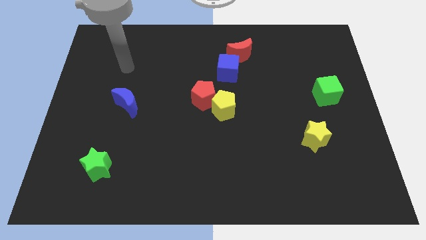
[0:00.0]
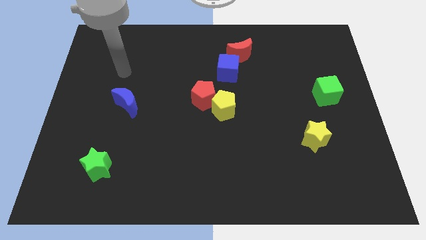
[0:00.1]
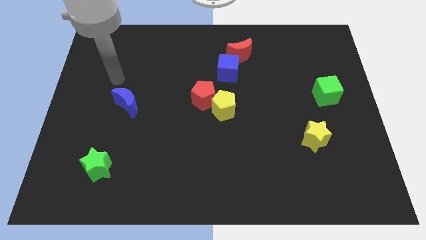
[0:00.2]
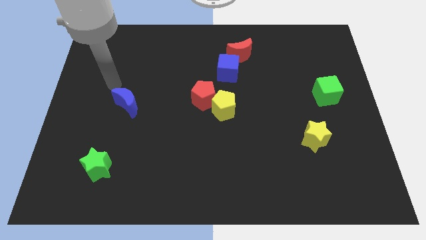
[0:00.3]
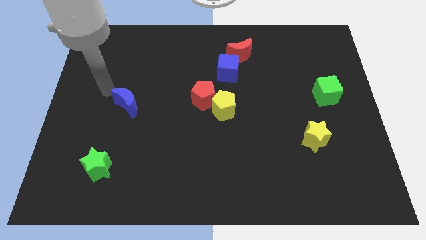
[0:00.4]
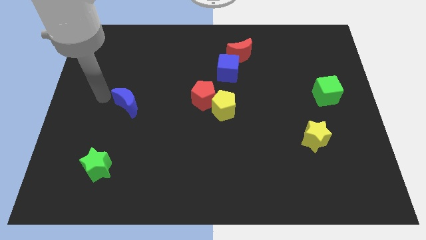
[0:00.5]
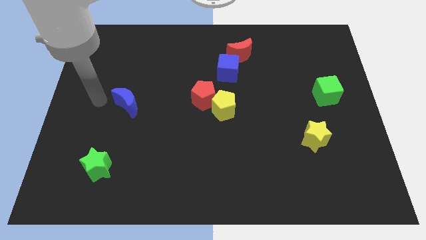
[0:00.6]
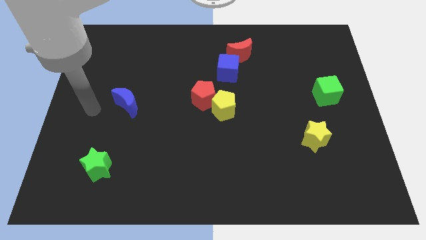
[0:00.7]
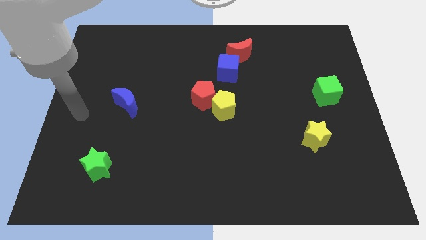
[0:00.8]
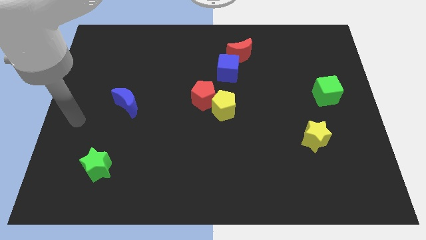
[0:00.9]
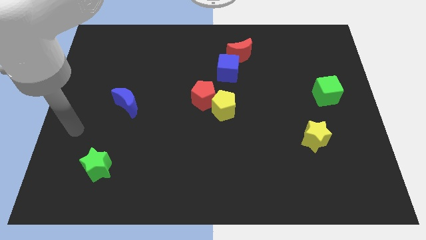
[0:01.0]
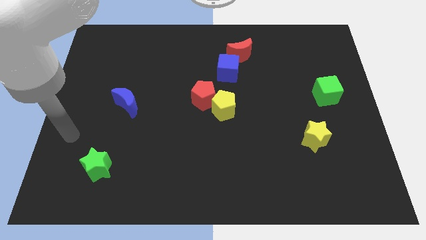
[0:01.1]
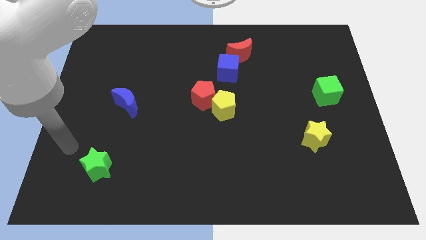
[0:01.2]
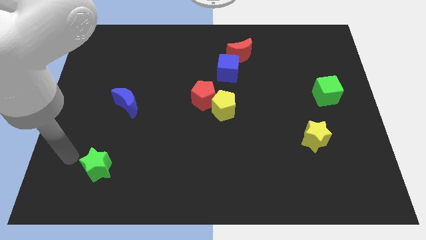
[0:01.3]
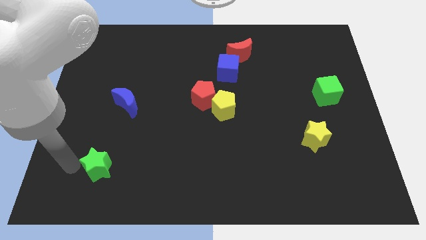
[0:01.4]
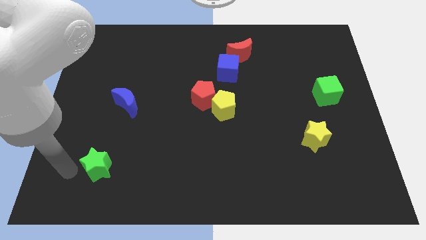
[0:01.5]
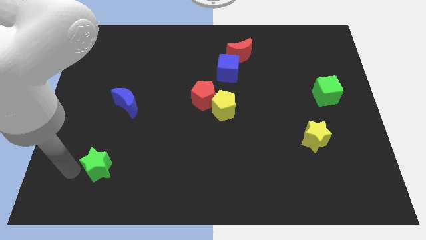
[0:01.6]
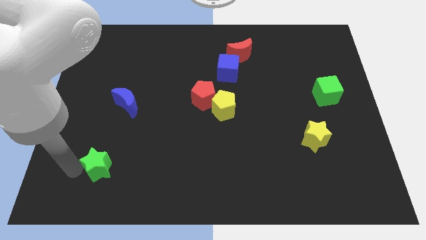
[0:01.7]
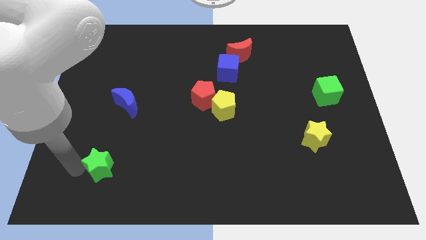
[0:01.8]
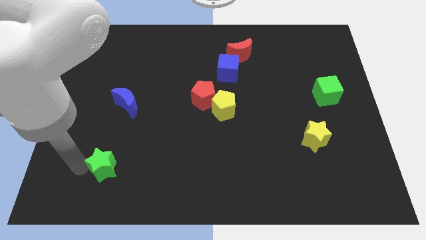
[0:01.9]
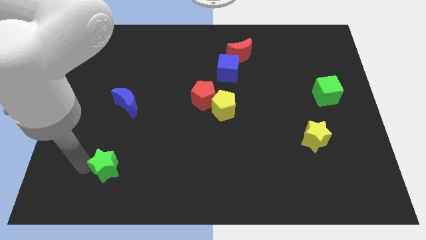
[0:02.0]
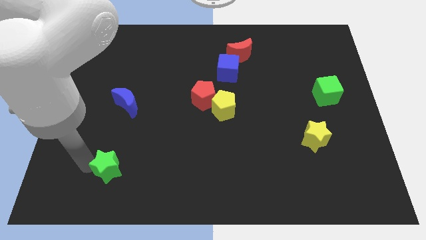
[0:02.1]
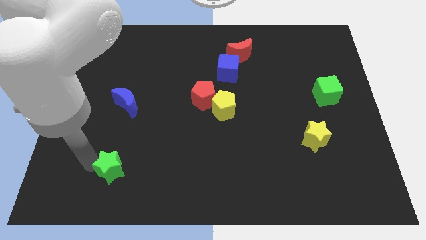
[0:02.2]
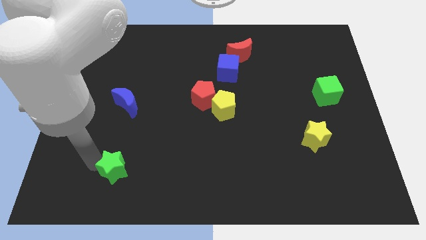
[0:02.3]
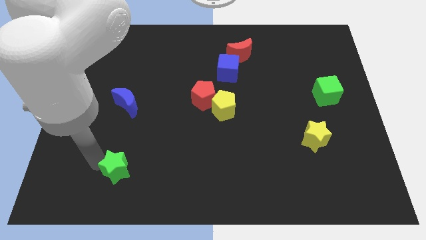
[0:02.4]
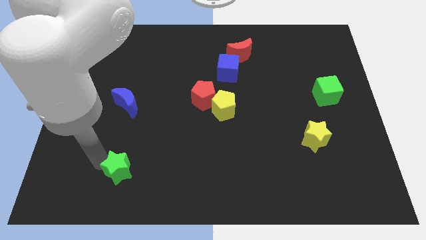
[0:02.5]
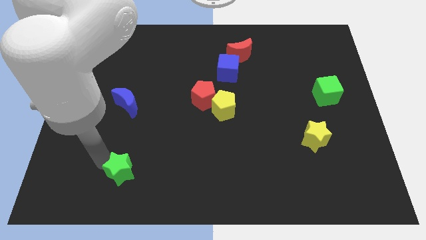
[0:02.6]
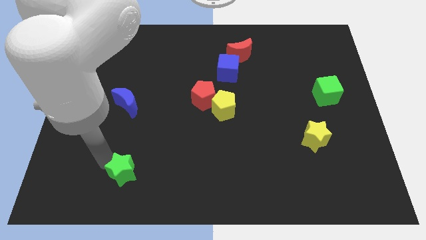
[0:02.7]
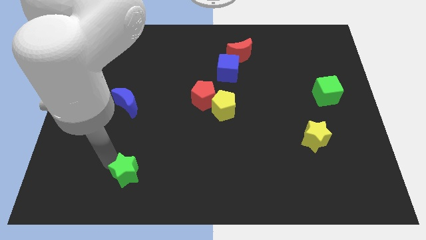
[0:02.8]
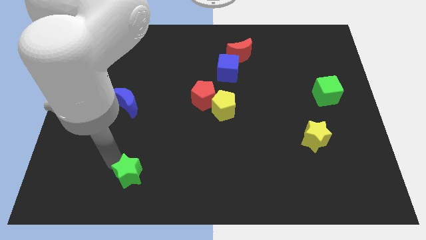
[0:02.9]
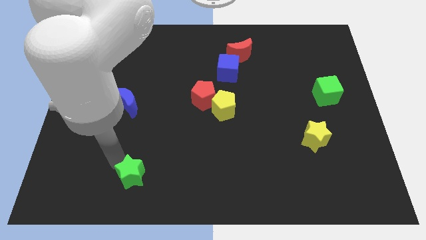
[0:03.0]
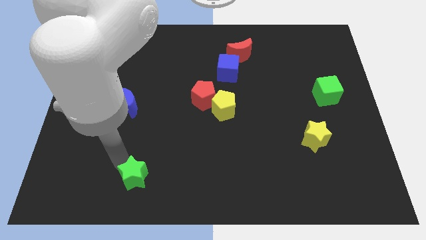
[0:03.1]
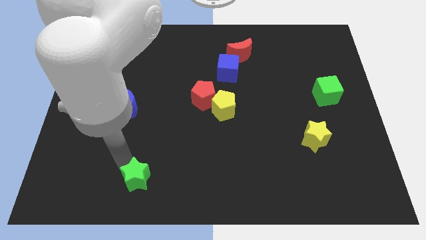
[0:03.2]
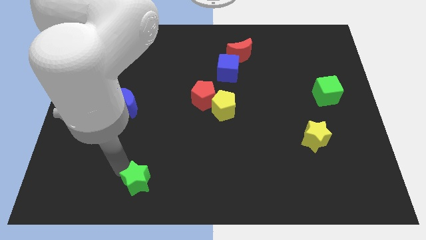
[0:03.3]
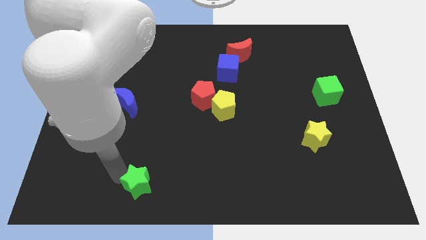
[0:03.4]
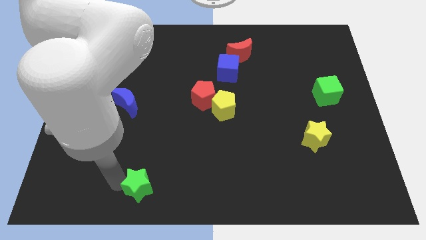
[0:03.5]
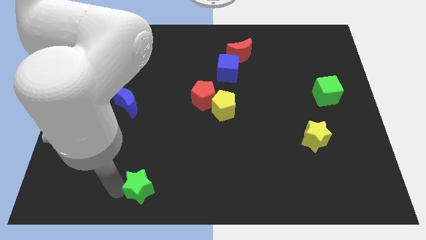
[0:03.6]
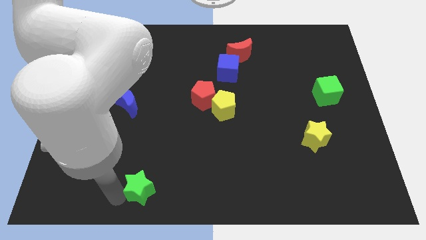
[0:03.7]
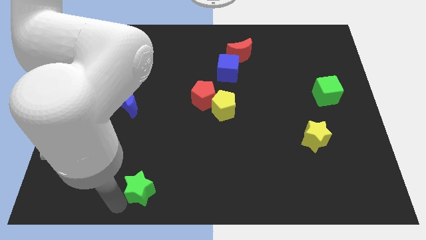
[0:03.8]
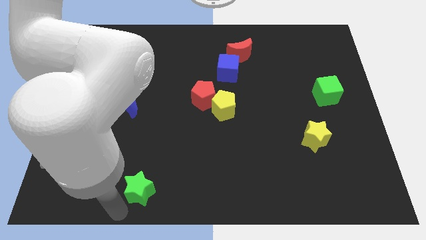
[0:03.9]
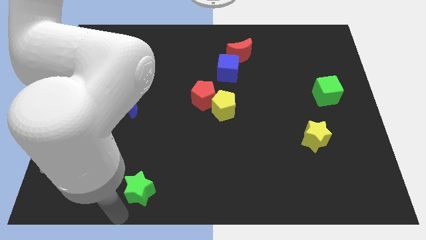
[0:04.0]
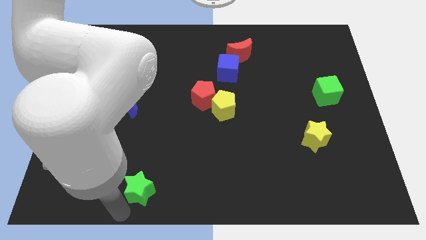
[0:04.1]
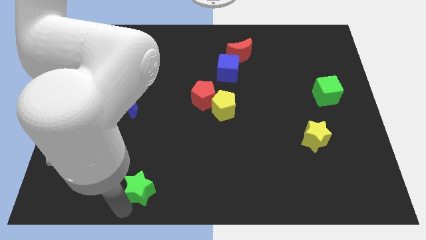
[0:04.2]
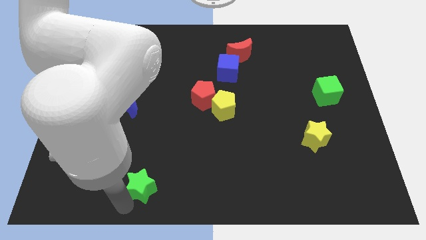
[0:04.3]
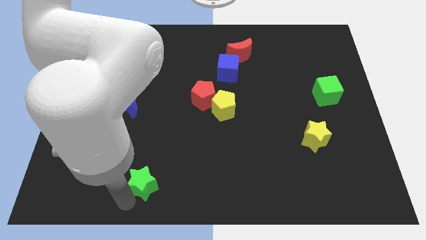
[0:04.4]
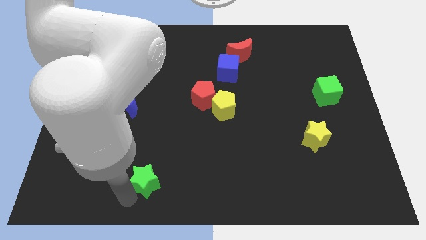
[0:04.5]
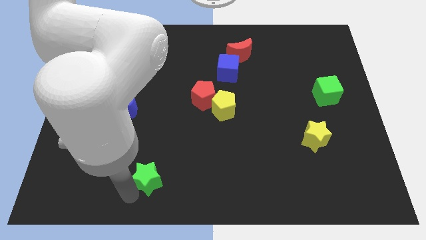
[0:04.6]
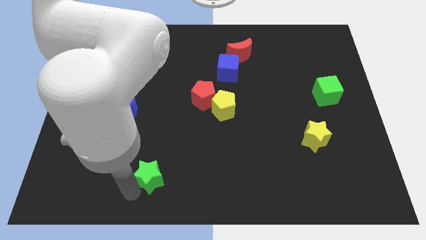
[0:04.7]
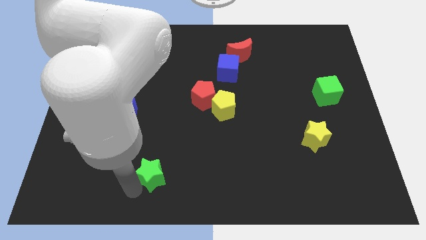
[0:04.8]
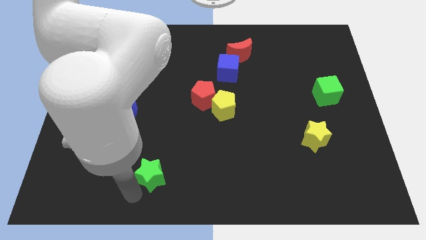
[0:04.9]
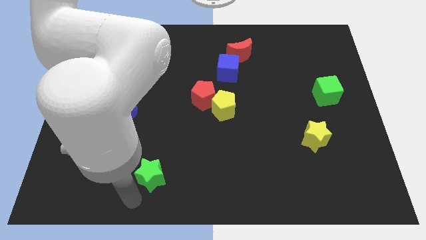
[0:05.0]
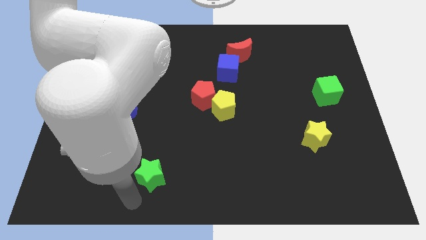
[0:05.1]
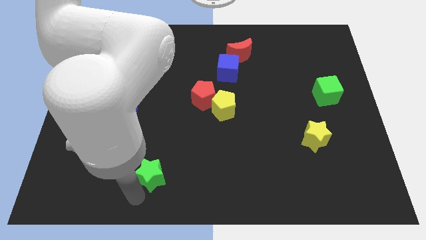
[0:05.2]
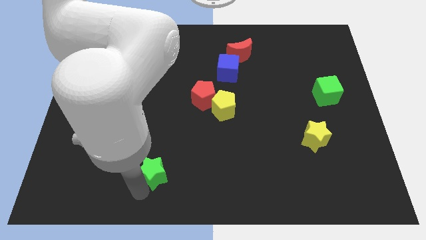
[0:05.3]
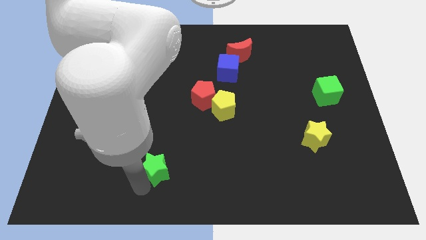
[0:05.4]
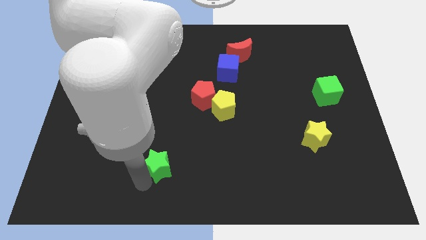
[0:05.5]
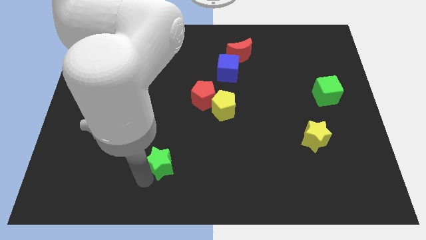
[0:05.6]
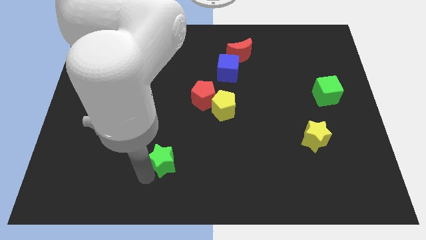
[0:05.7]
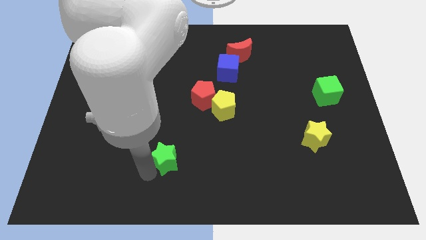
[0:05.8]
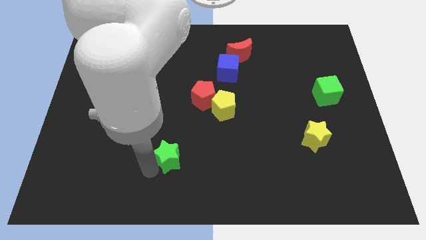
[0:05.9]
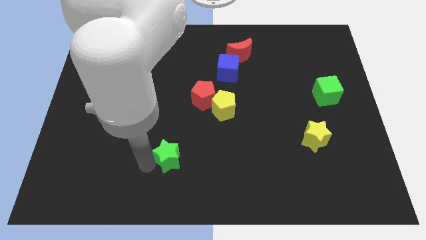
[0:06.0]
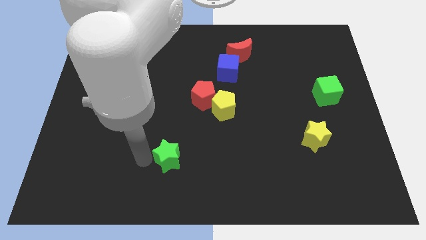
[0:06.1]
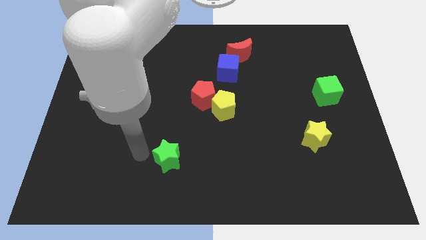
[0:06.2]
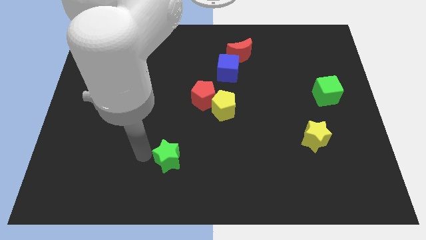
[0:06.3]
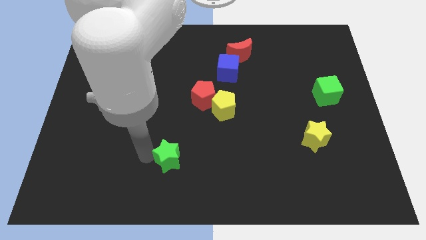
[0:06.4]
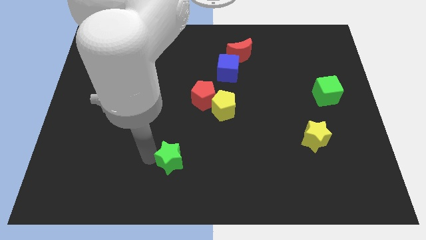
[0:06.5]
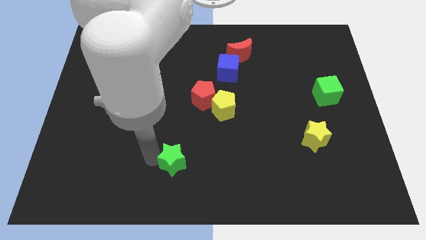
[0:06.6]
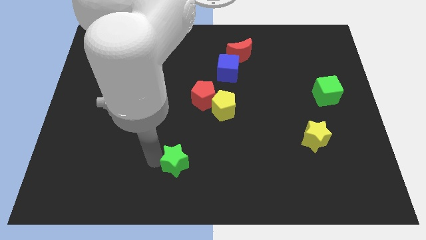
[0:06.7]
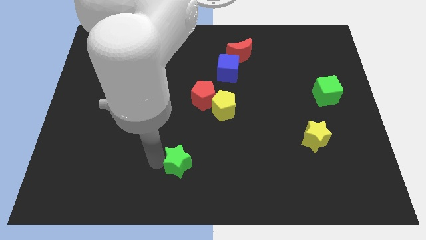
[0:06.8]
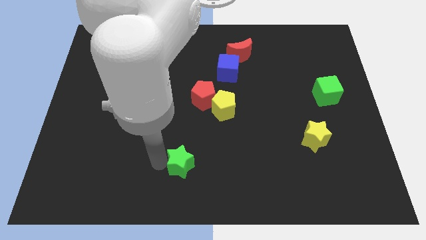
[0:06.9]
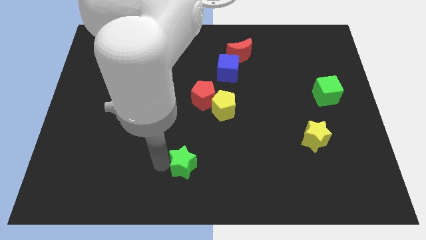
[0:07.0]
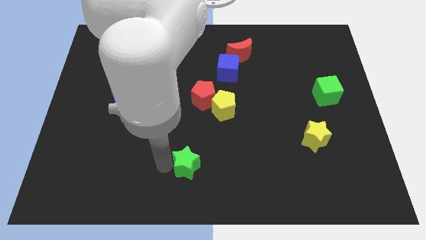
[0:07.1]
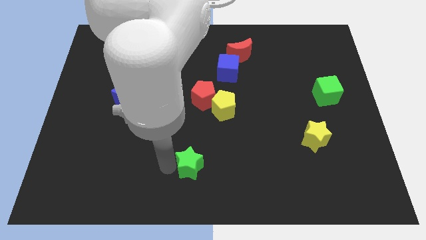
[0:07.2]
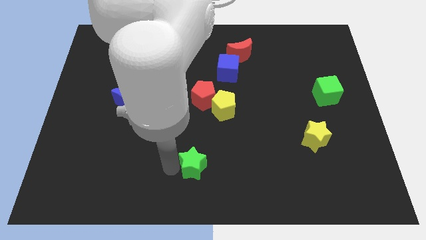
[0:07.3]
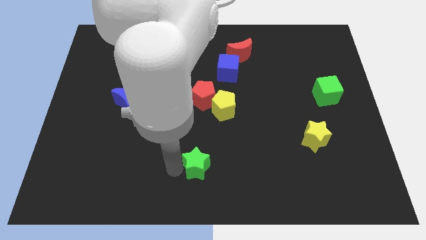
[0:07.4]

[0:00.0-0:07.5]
move the green star right

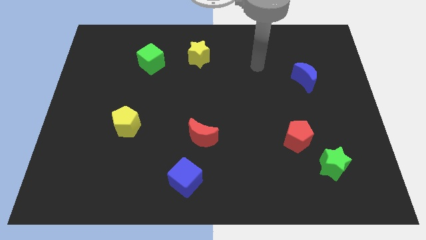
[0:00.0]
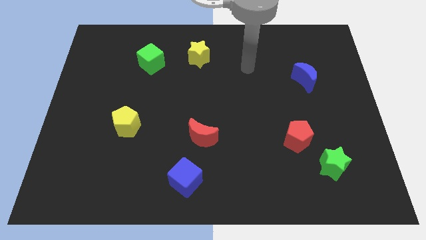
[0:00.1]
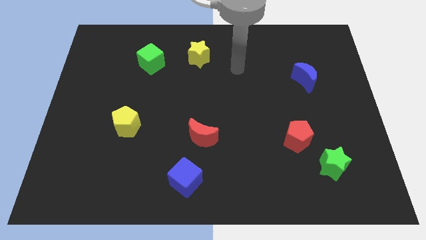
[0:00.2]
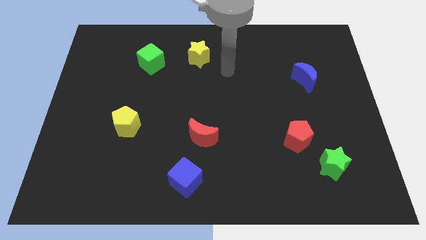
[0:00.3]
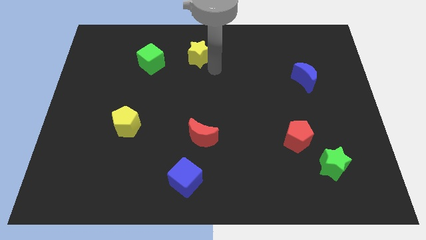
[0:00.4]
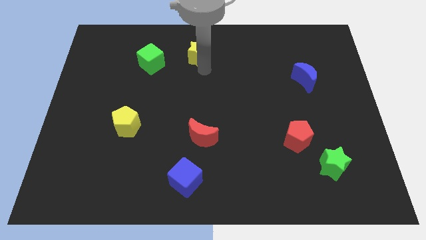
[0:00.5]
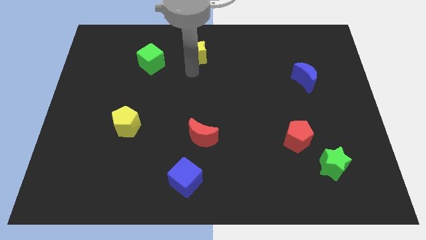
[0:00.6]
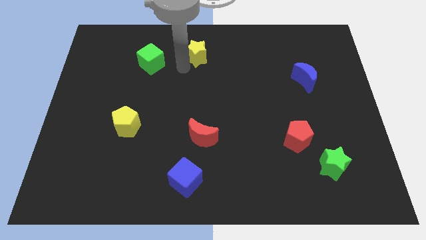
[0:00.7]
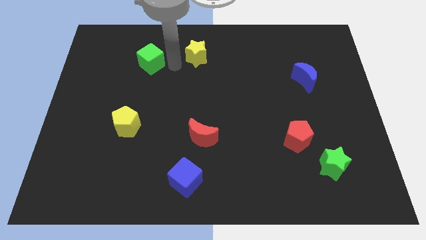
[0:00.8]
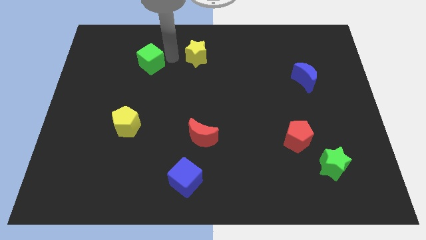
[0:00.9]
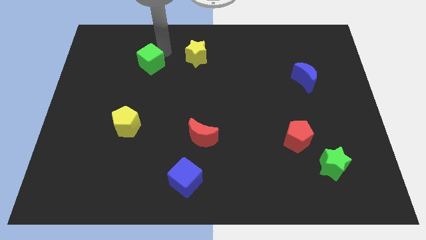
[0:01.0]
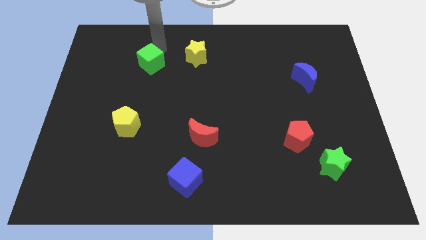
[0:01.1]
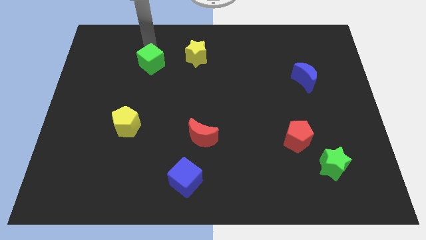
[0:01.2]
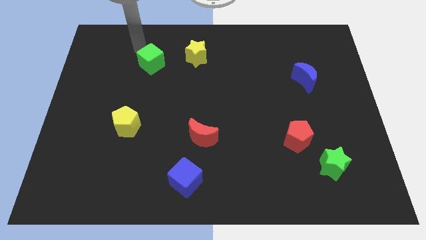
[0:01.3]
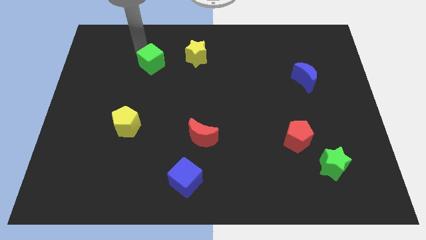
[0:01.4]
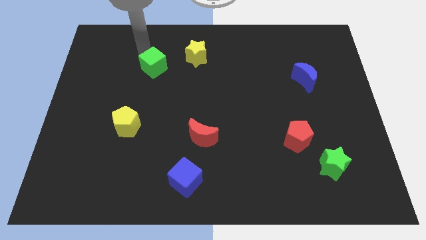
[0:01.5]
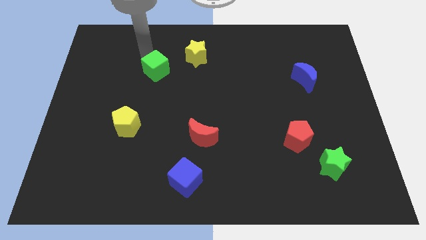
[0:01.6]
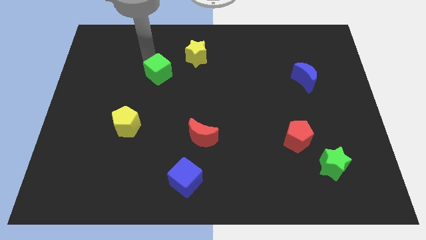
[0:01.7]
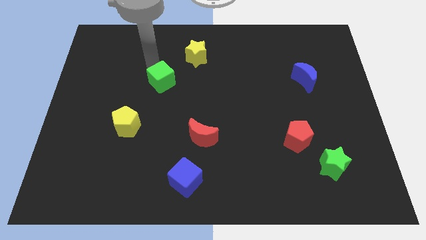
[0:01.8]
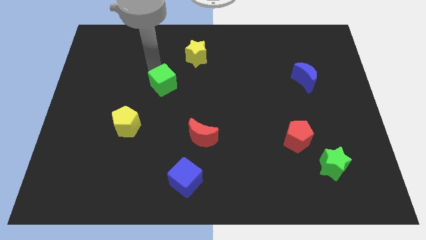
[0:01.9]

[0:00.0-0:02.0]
move the green cube slightly downwards and then to the right
